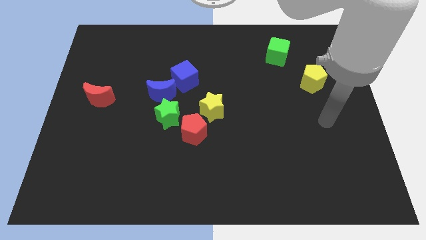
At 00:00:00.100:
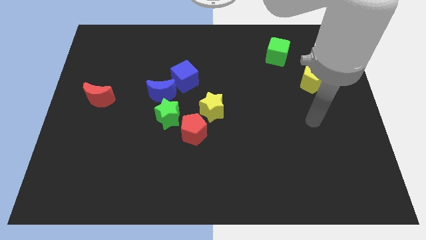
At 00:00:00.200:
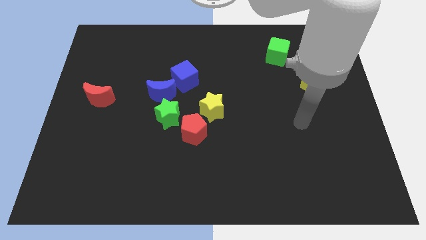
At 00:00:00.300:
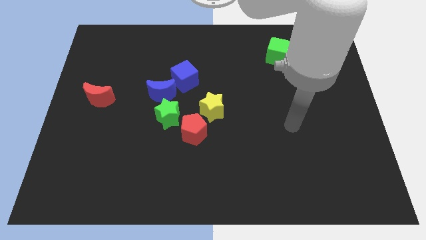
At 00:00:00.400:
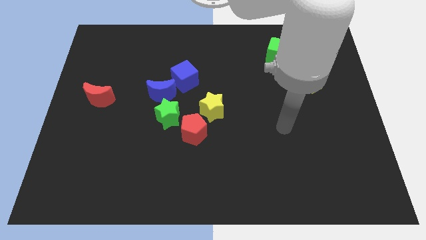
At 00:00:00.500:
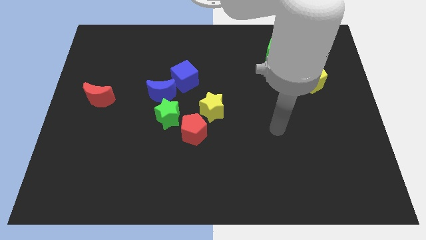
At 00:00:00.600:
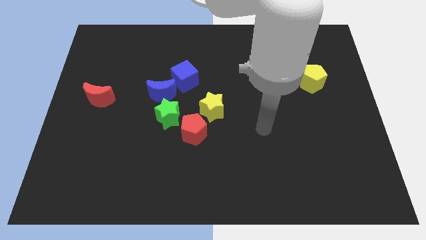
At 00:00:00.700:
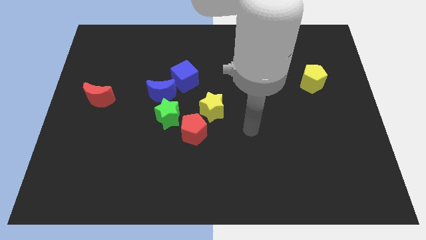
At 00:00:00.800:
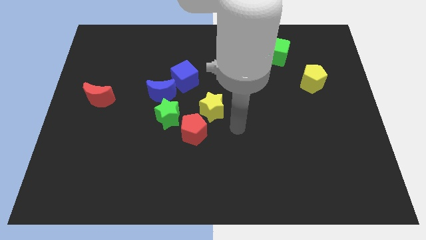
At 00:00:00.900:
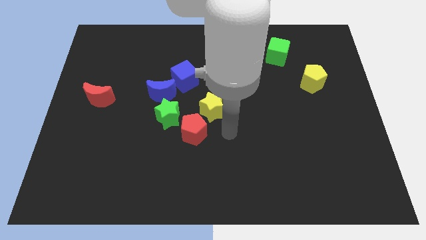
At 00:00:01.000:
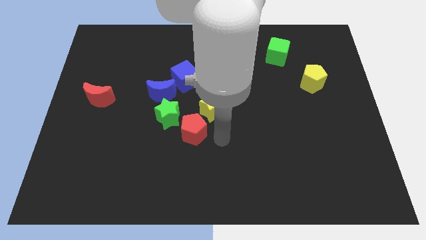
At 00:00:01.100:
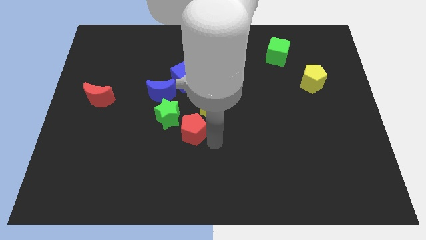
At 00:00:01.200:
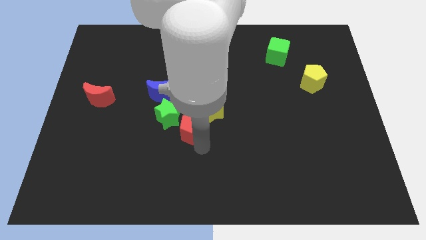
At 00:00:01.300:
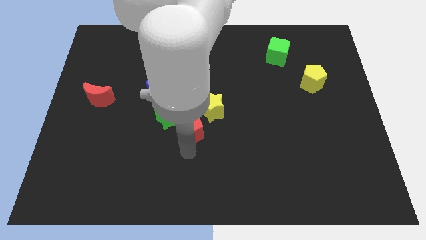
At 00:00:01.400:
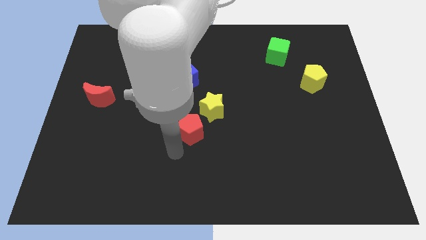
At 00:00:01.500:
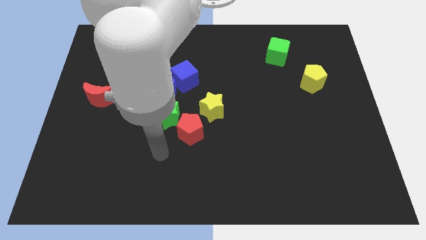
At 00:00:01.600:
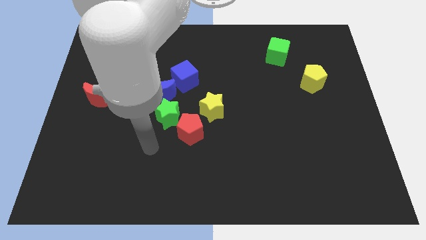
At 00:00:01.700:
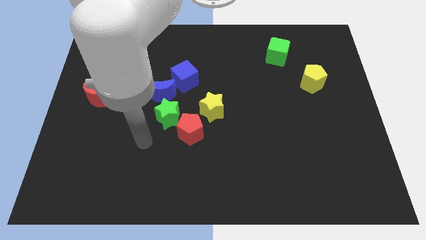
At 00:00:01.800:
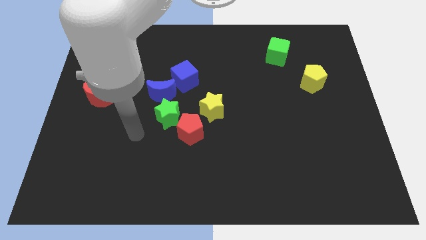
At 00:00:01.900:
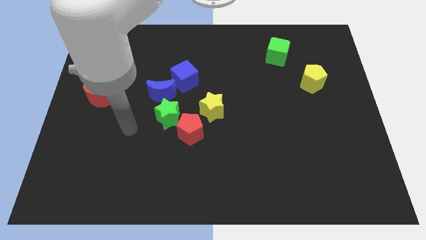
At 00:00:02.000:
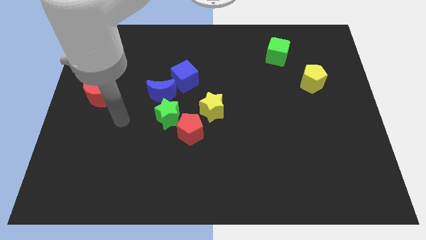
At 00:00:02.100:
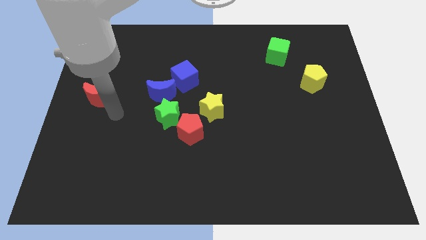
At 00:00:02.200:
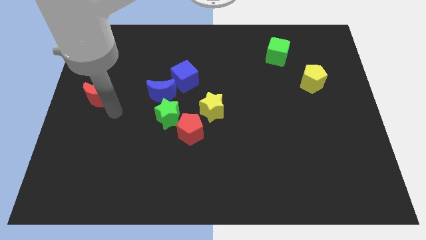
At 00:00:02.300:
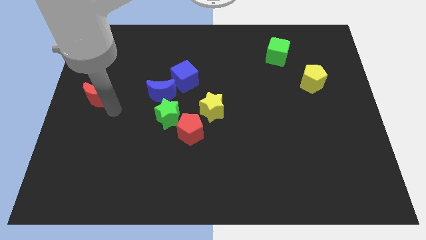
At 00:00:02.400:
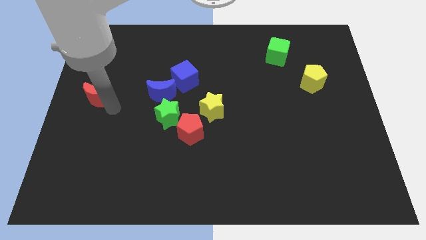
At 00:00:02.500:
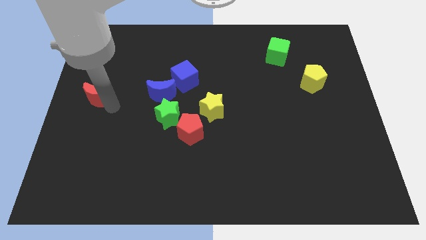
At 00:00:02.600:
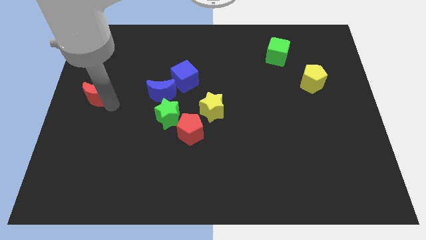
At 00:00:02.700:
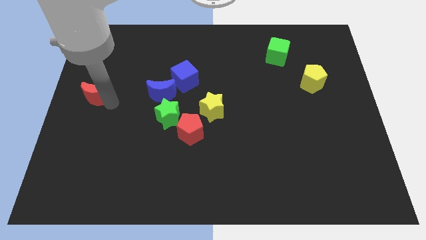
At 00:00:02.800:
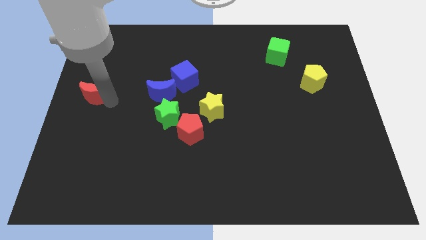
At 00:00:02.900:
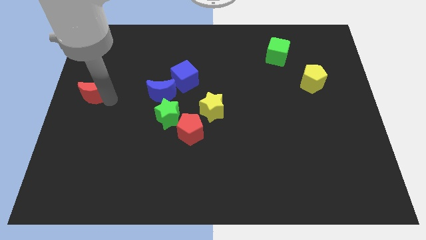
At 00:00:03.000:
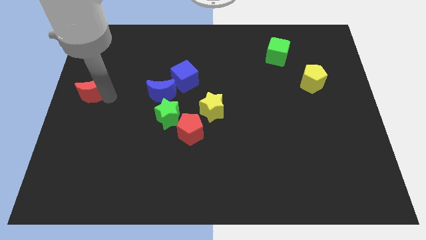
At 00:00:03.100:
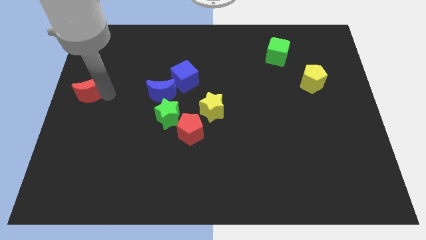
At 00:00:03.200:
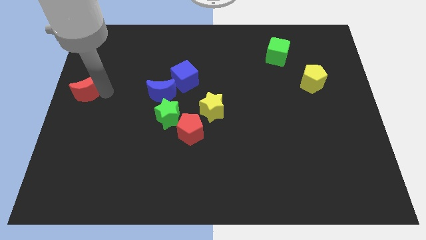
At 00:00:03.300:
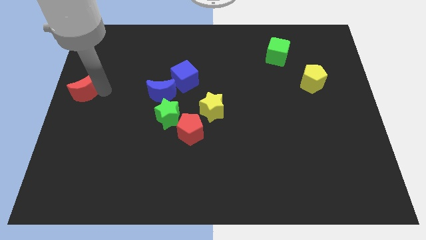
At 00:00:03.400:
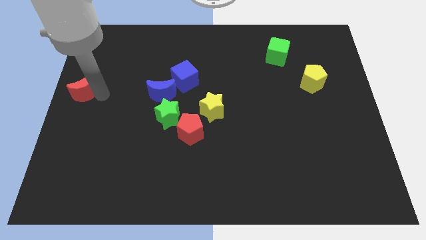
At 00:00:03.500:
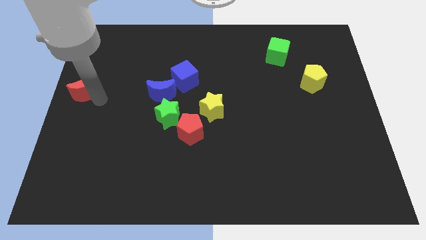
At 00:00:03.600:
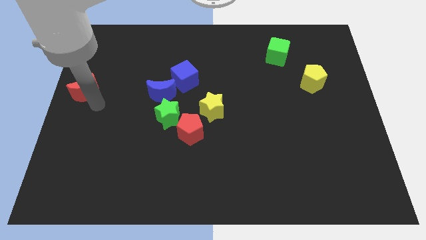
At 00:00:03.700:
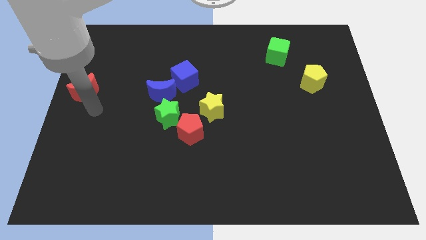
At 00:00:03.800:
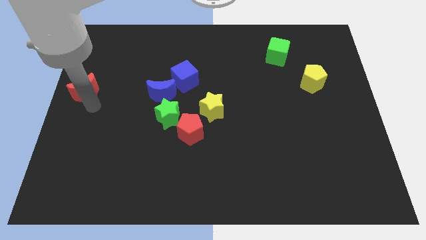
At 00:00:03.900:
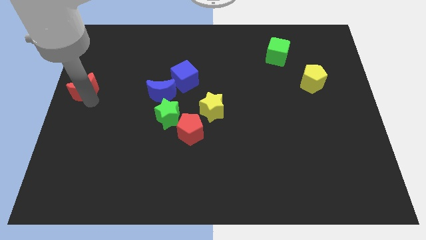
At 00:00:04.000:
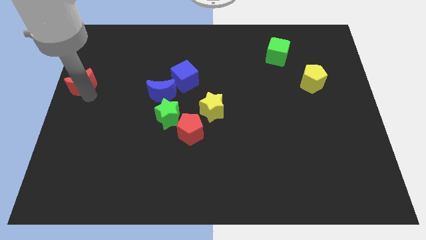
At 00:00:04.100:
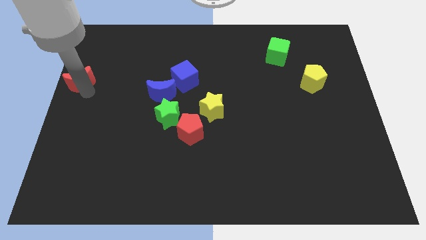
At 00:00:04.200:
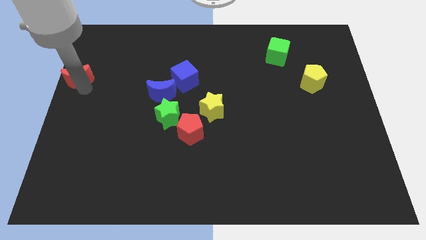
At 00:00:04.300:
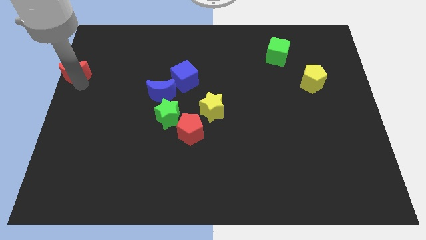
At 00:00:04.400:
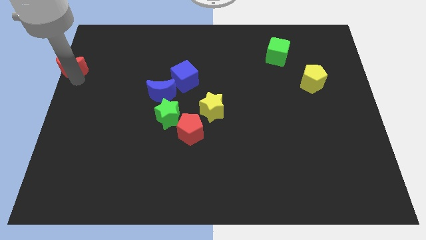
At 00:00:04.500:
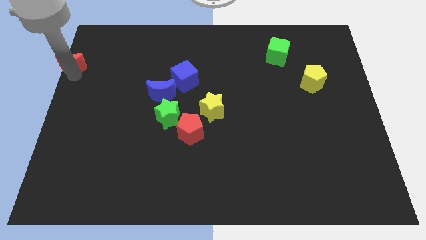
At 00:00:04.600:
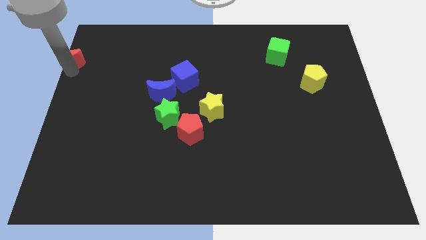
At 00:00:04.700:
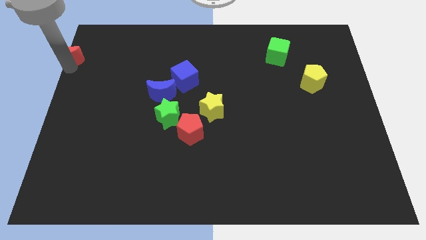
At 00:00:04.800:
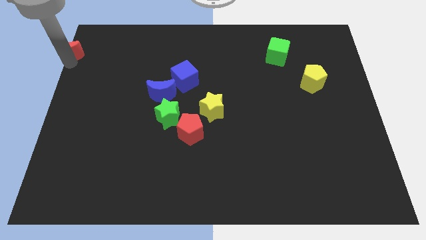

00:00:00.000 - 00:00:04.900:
slide the red moon to the top left corner

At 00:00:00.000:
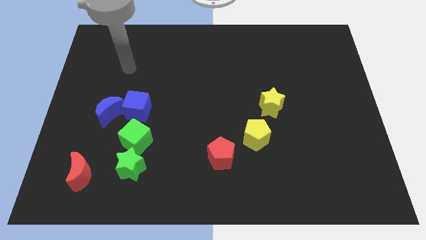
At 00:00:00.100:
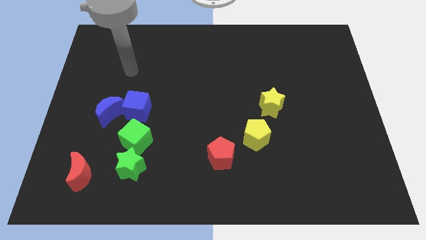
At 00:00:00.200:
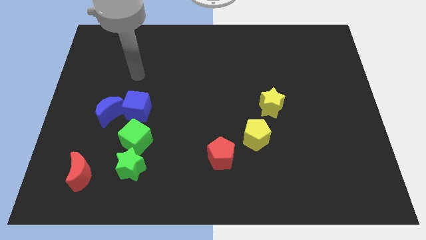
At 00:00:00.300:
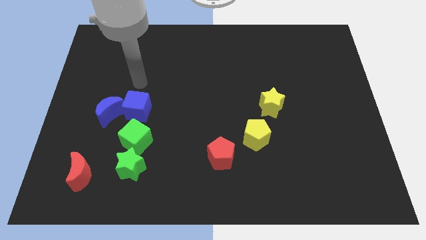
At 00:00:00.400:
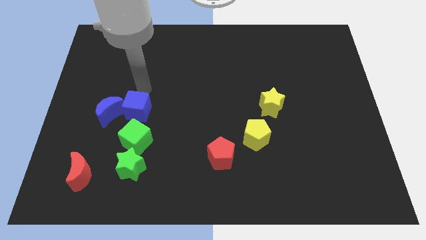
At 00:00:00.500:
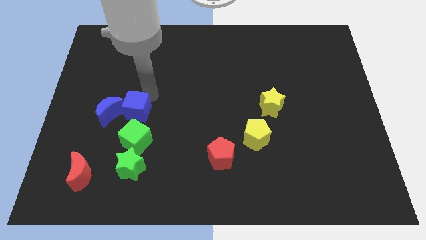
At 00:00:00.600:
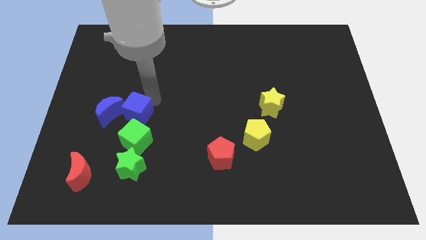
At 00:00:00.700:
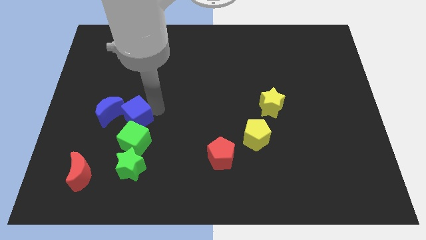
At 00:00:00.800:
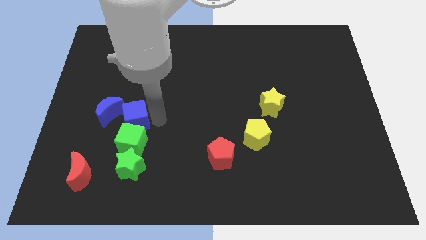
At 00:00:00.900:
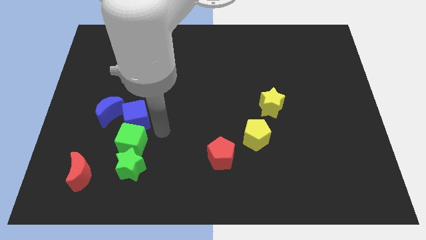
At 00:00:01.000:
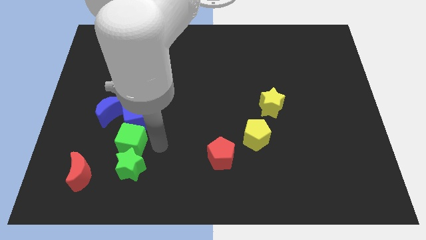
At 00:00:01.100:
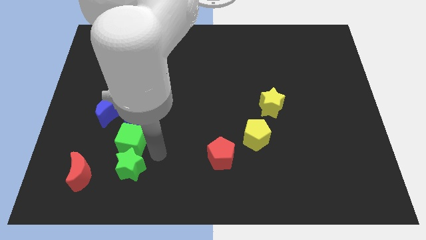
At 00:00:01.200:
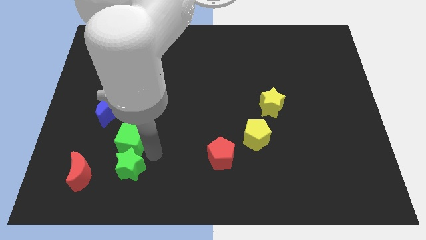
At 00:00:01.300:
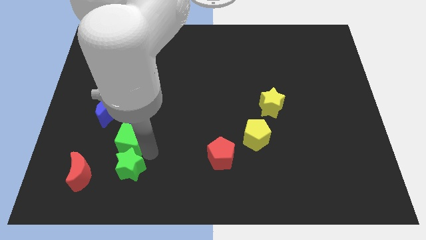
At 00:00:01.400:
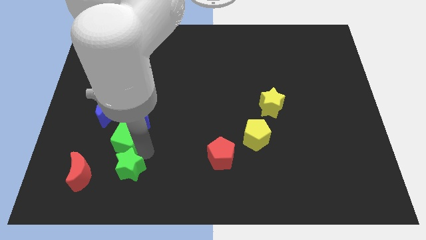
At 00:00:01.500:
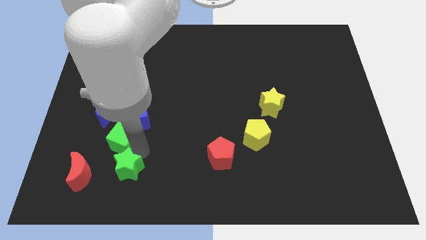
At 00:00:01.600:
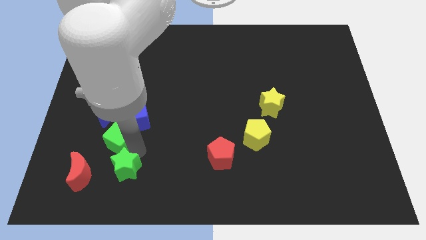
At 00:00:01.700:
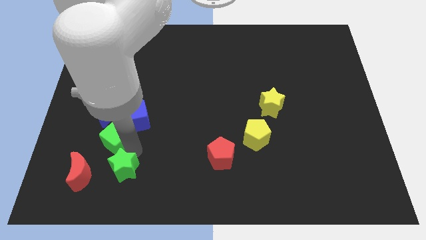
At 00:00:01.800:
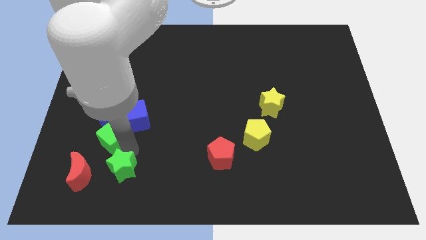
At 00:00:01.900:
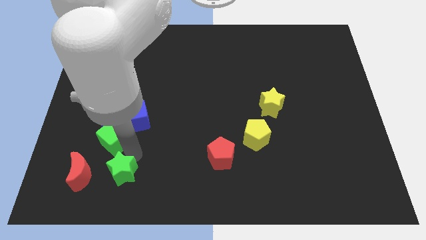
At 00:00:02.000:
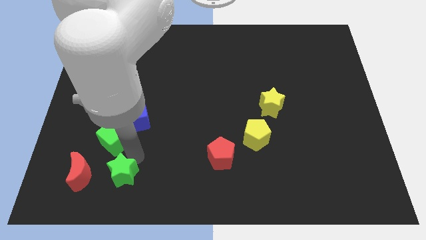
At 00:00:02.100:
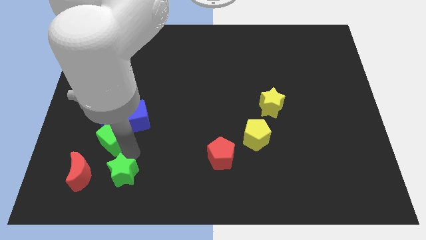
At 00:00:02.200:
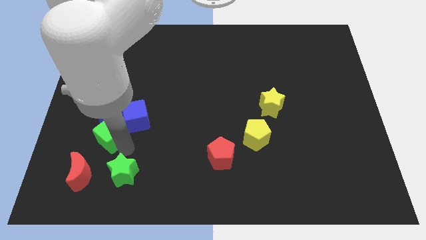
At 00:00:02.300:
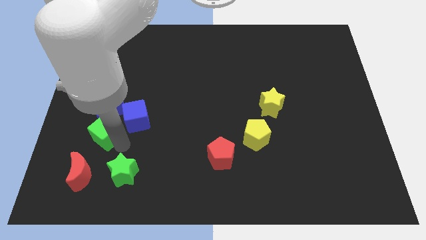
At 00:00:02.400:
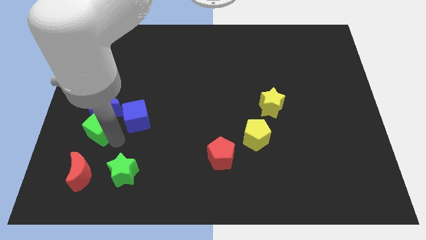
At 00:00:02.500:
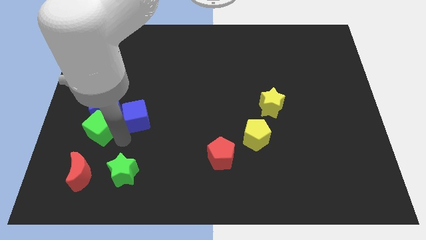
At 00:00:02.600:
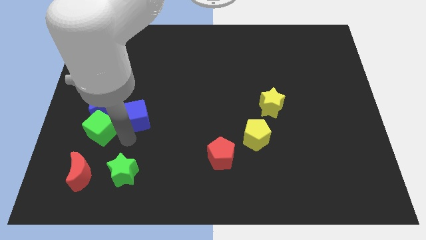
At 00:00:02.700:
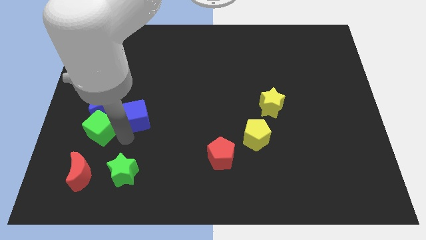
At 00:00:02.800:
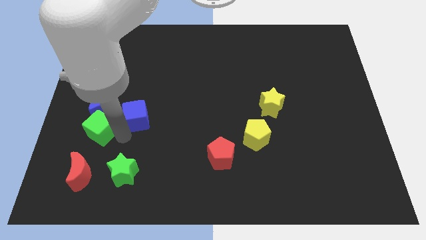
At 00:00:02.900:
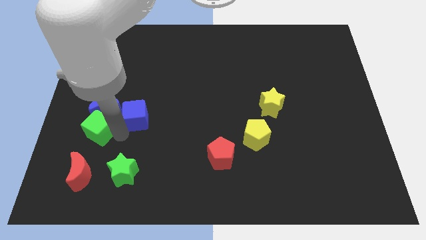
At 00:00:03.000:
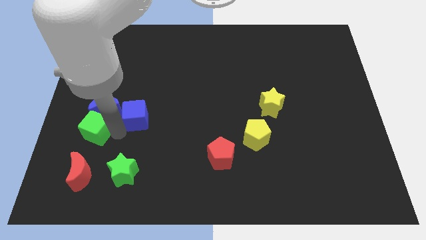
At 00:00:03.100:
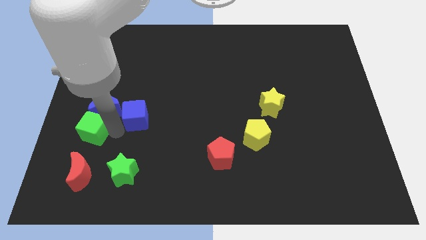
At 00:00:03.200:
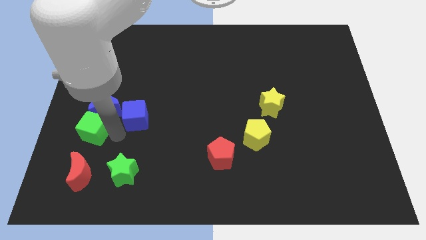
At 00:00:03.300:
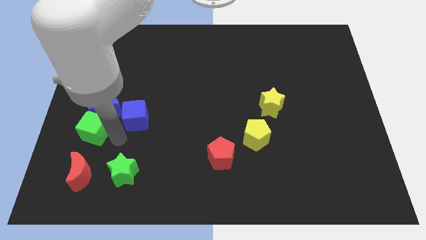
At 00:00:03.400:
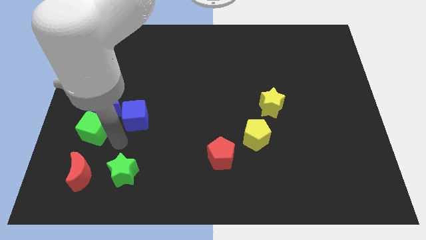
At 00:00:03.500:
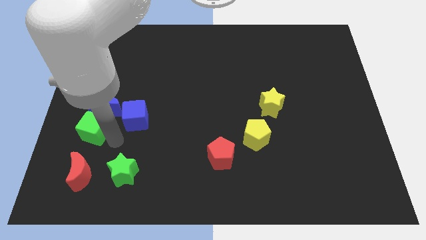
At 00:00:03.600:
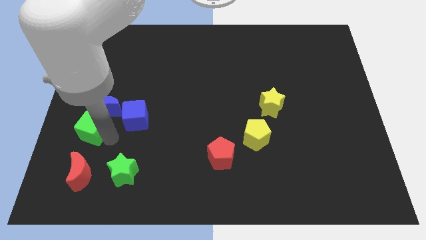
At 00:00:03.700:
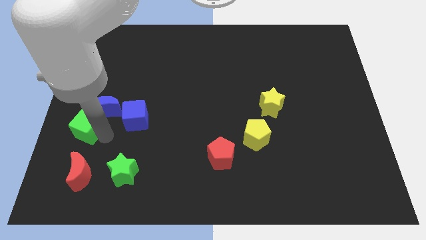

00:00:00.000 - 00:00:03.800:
move the green cube to the center left
